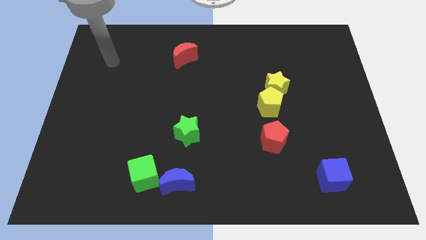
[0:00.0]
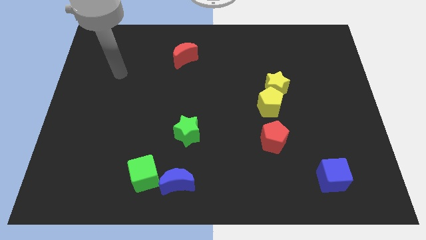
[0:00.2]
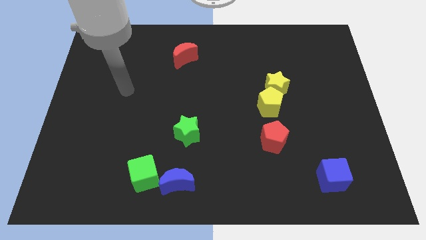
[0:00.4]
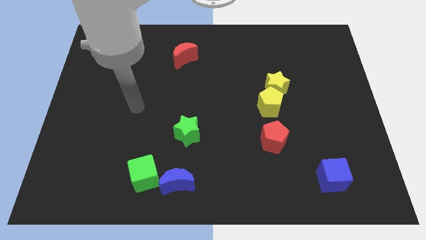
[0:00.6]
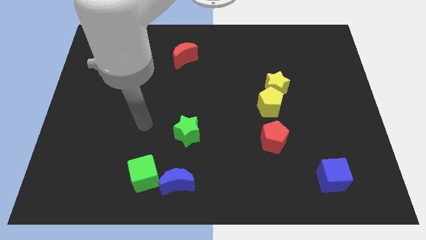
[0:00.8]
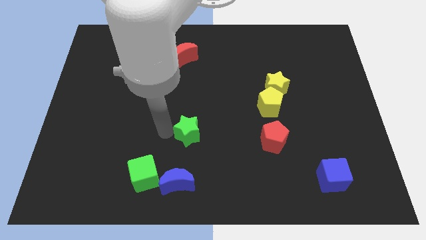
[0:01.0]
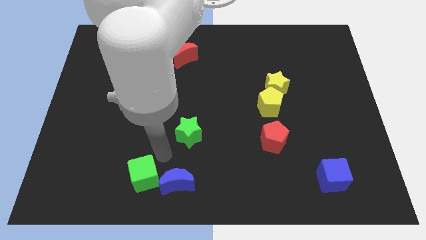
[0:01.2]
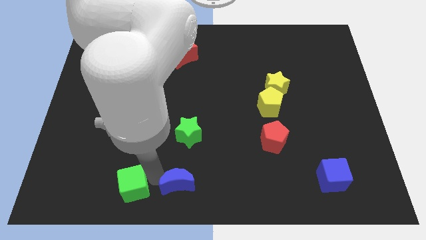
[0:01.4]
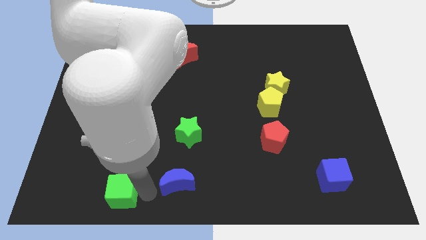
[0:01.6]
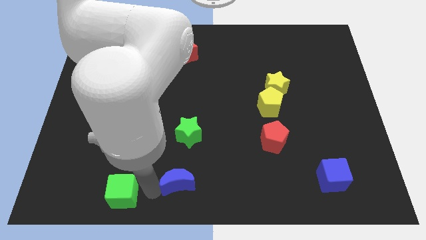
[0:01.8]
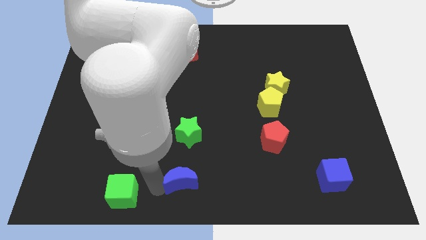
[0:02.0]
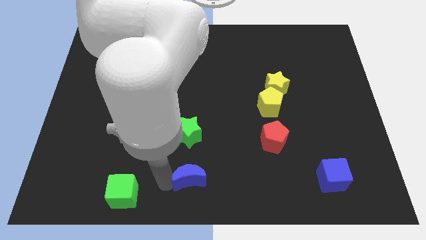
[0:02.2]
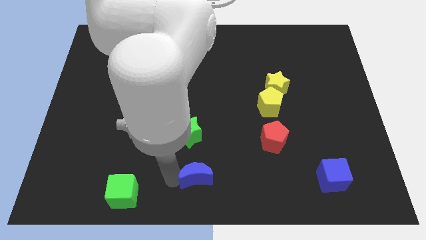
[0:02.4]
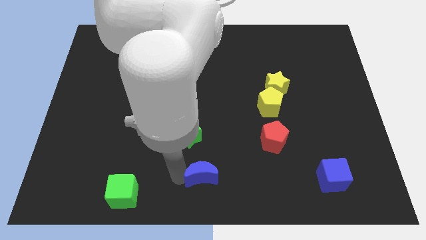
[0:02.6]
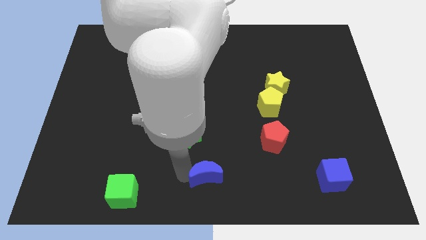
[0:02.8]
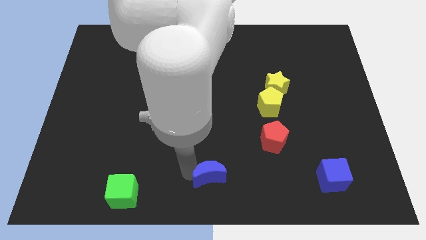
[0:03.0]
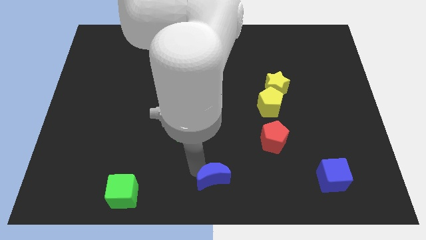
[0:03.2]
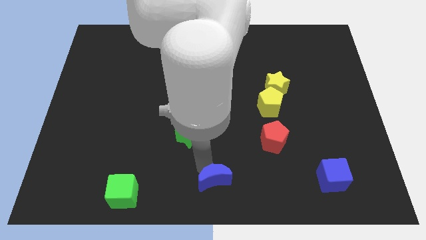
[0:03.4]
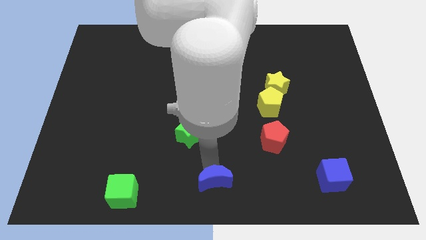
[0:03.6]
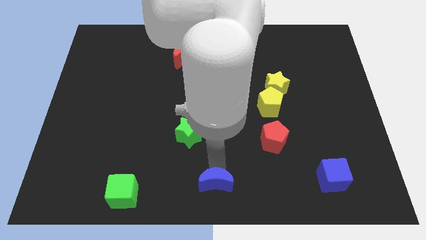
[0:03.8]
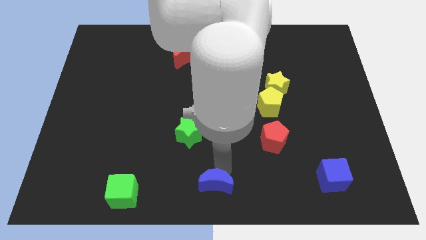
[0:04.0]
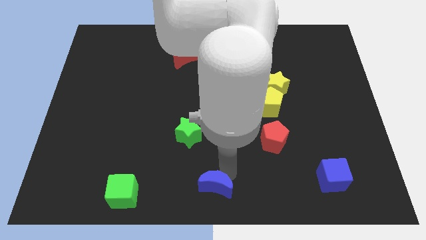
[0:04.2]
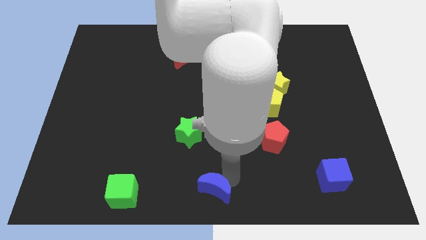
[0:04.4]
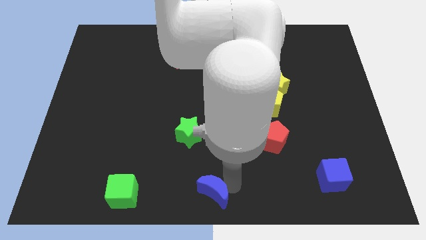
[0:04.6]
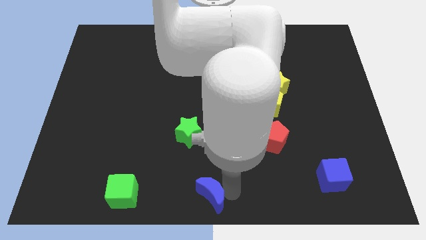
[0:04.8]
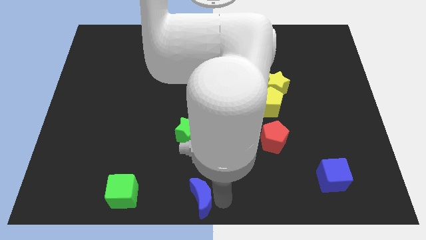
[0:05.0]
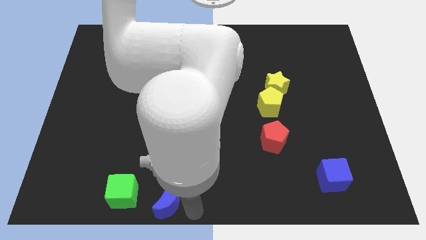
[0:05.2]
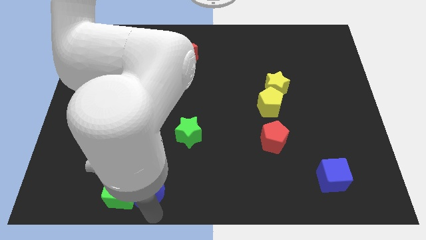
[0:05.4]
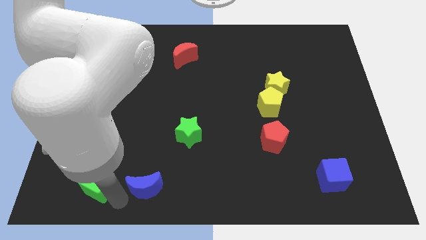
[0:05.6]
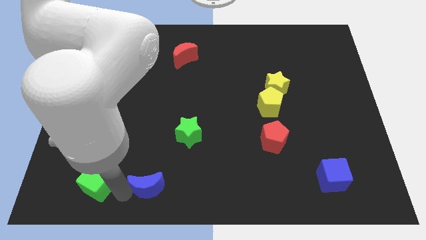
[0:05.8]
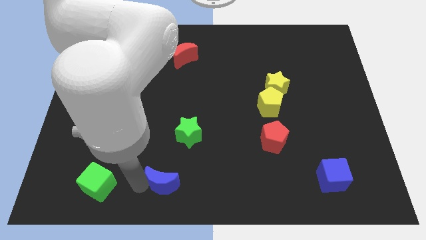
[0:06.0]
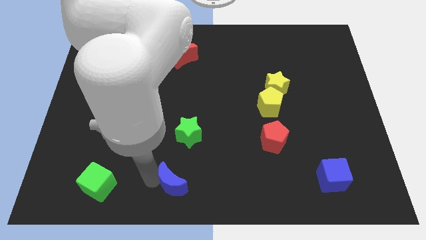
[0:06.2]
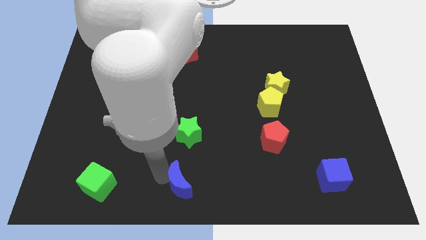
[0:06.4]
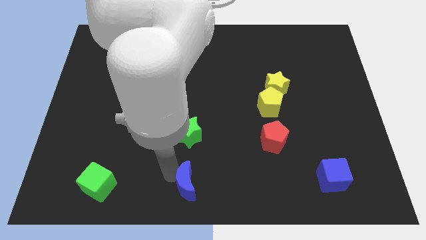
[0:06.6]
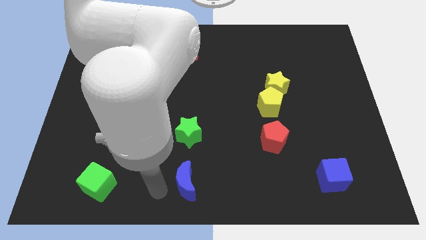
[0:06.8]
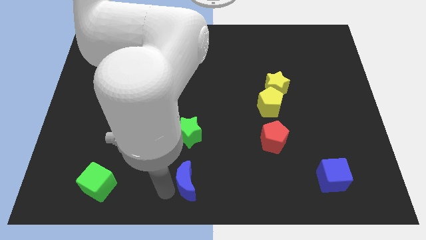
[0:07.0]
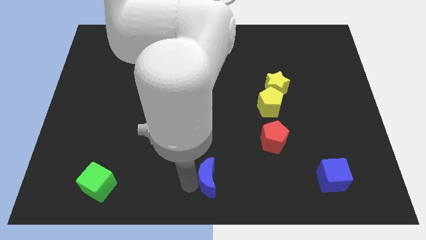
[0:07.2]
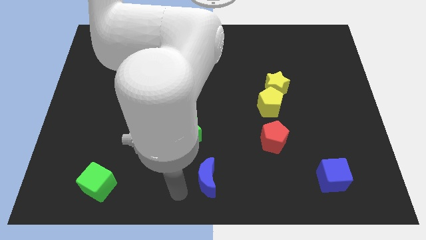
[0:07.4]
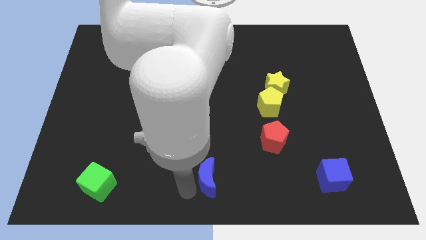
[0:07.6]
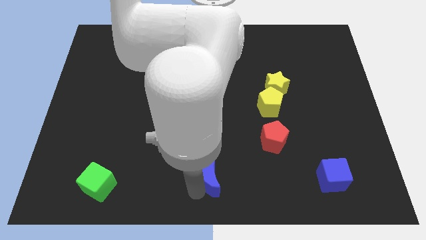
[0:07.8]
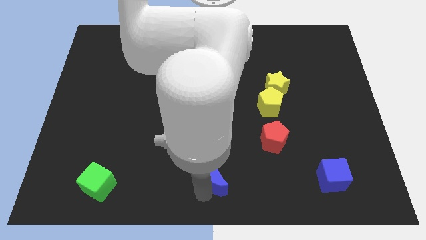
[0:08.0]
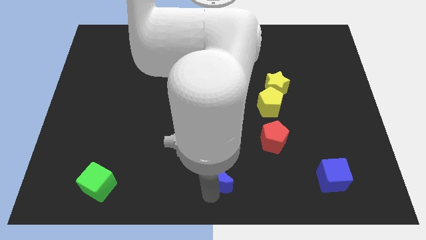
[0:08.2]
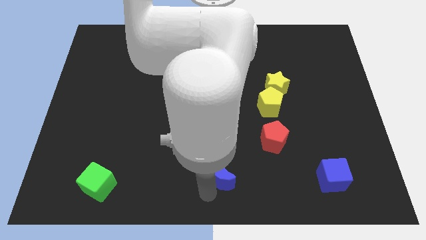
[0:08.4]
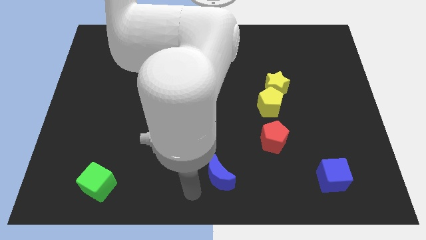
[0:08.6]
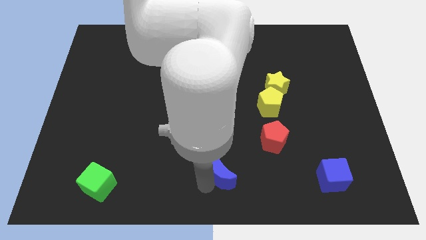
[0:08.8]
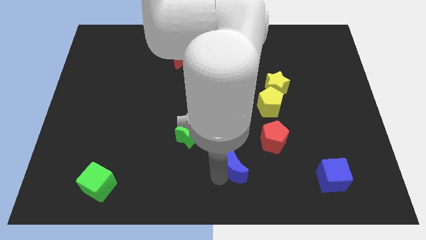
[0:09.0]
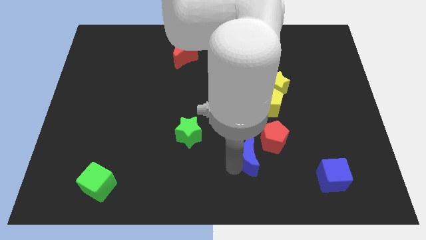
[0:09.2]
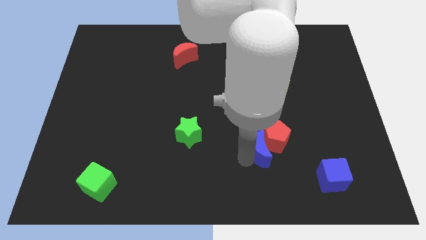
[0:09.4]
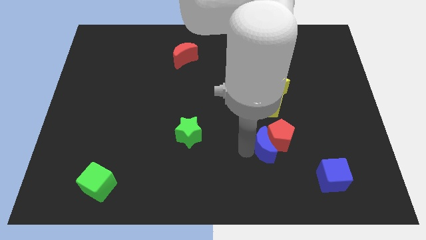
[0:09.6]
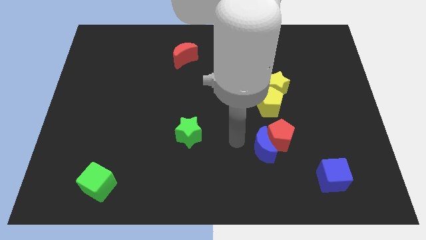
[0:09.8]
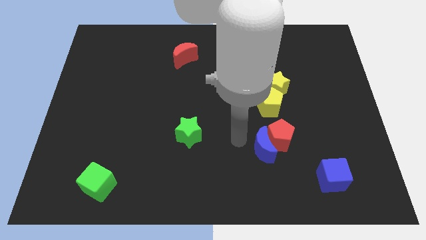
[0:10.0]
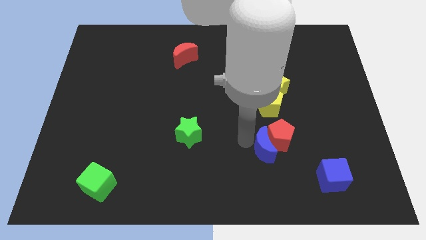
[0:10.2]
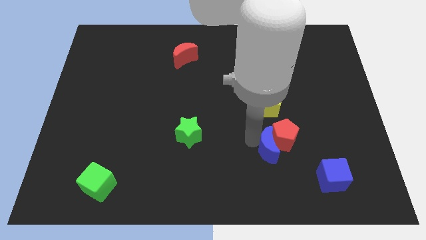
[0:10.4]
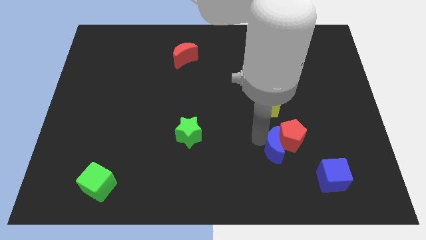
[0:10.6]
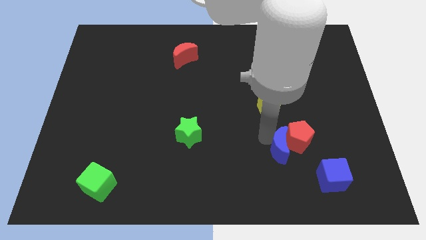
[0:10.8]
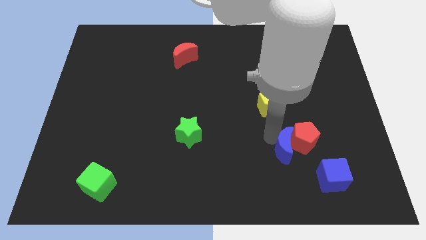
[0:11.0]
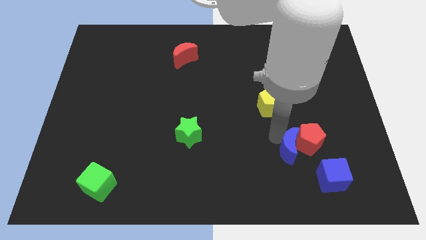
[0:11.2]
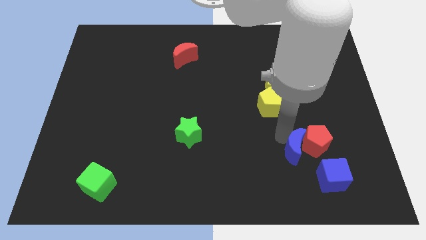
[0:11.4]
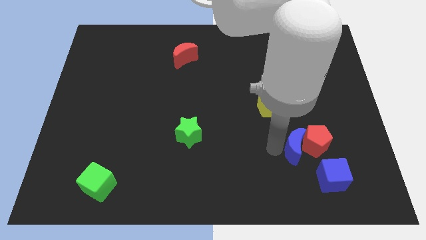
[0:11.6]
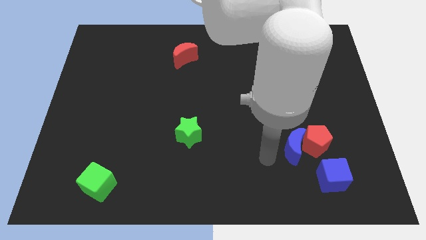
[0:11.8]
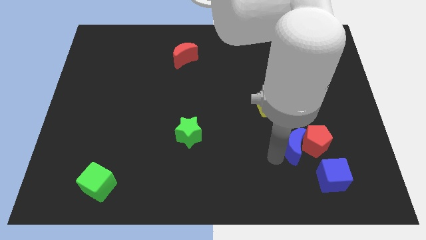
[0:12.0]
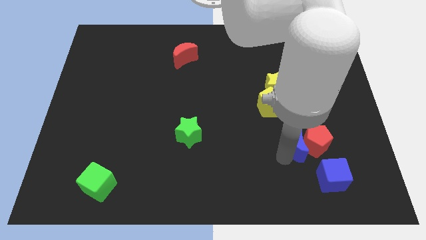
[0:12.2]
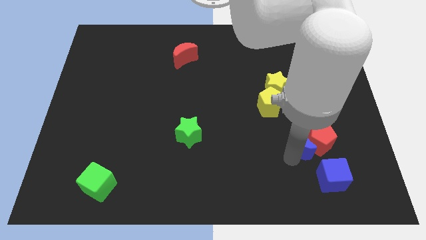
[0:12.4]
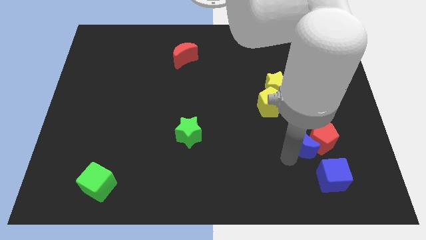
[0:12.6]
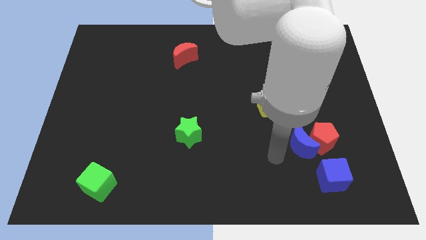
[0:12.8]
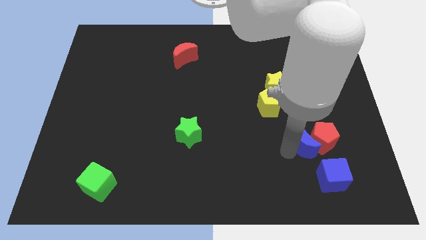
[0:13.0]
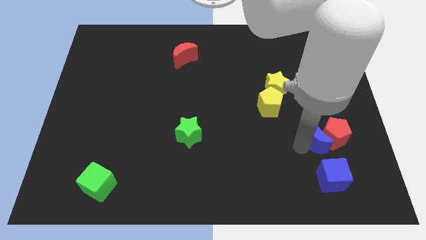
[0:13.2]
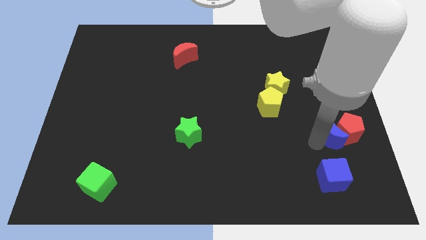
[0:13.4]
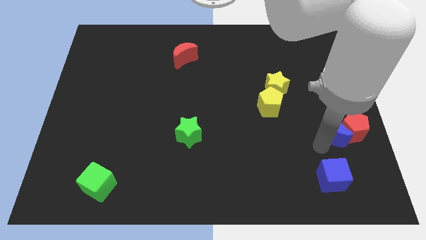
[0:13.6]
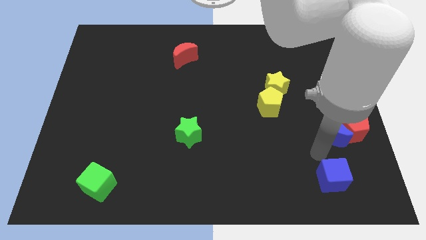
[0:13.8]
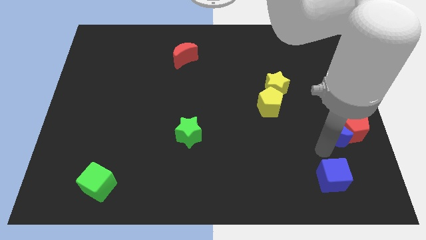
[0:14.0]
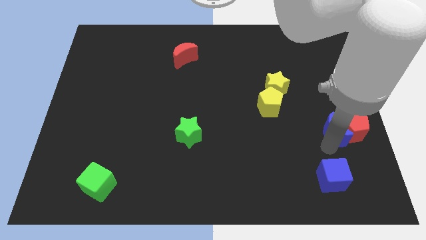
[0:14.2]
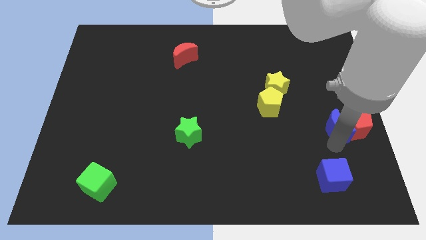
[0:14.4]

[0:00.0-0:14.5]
put the blue moon to the right side
